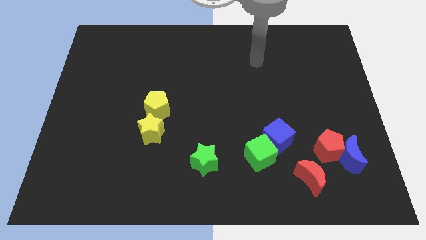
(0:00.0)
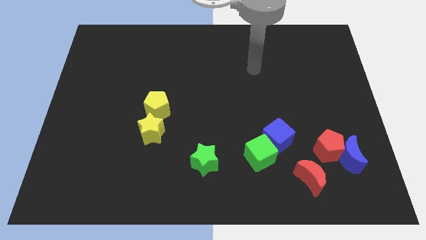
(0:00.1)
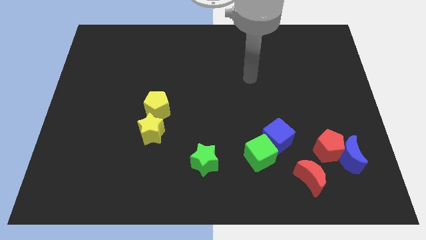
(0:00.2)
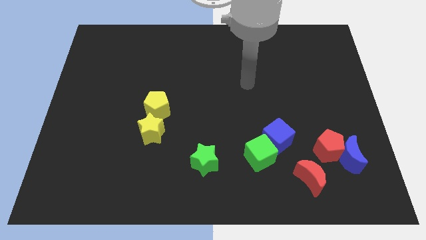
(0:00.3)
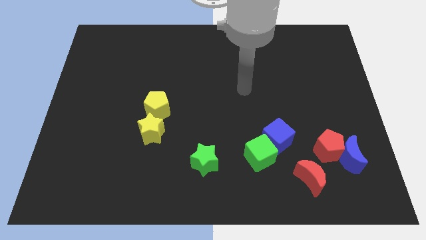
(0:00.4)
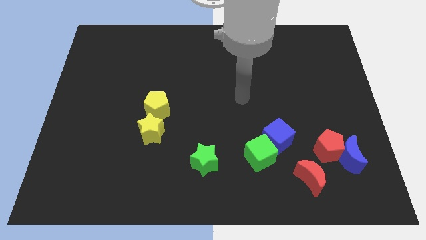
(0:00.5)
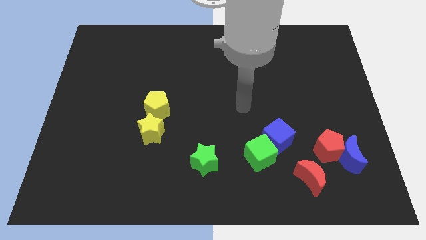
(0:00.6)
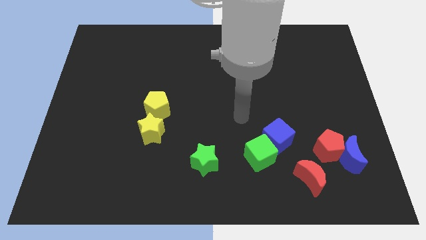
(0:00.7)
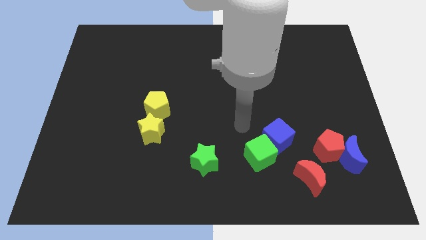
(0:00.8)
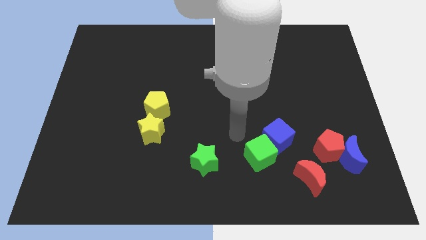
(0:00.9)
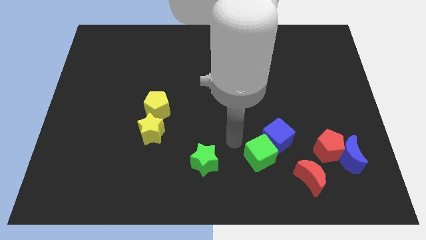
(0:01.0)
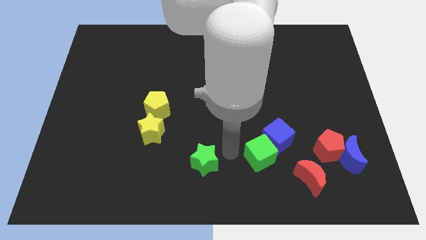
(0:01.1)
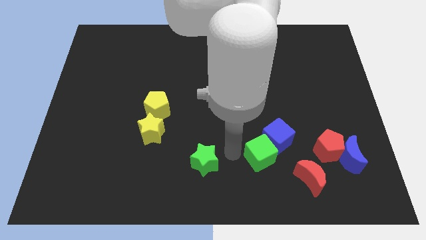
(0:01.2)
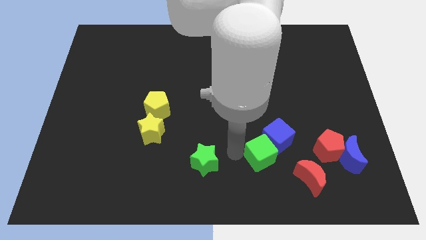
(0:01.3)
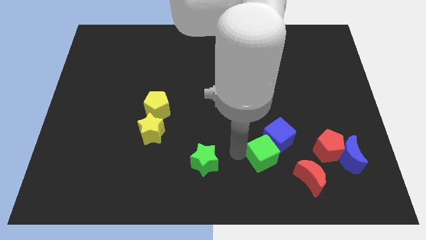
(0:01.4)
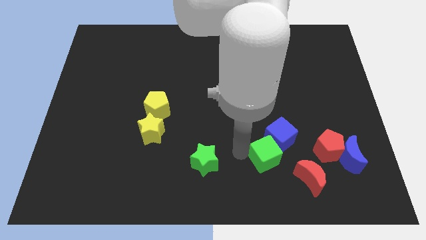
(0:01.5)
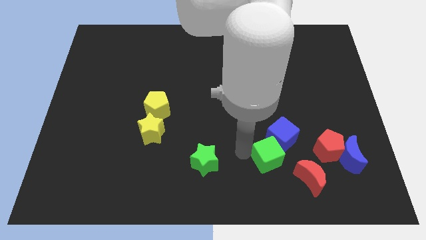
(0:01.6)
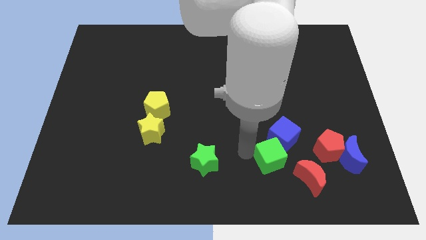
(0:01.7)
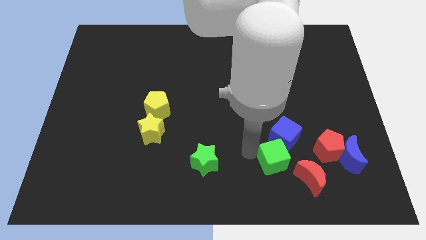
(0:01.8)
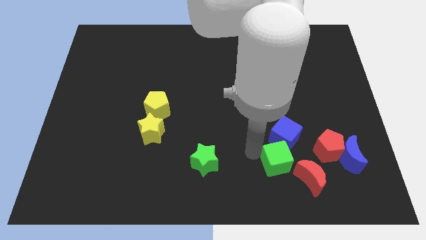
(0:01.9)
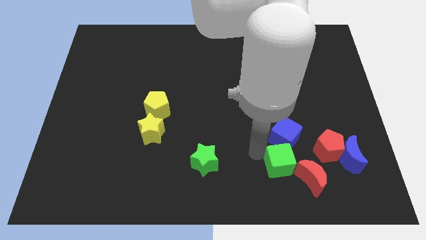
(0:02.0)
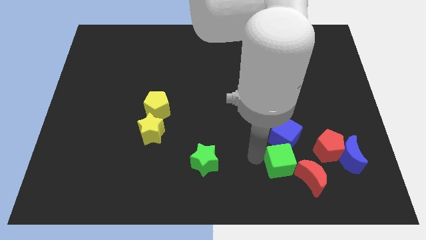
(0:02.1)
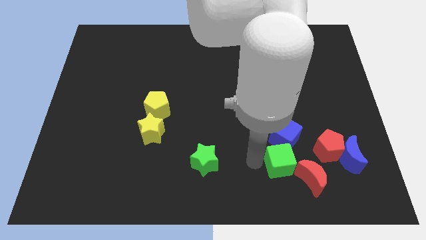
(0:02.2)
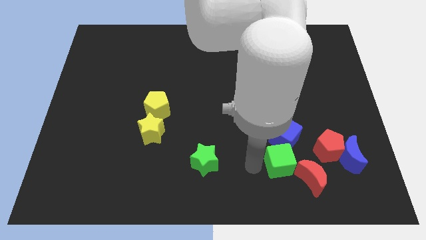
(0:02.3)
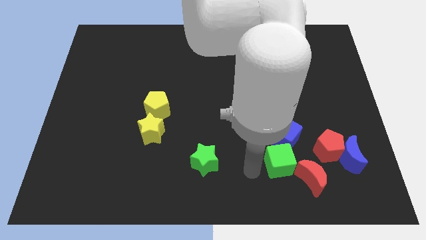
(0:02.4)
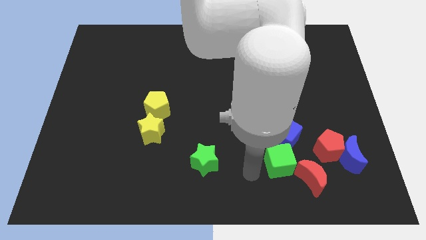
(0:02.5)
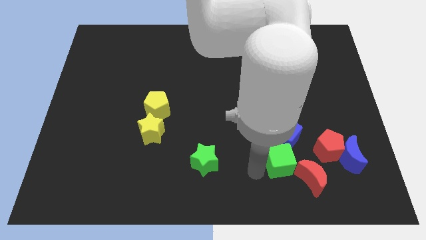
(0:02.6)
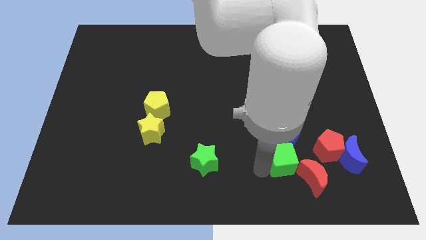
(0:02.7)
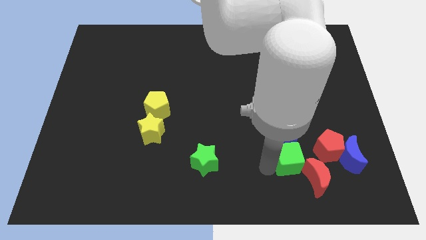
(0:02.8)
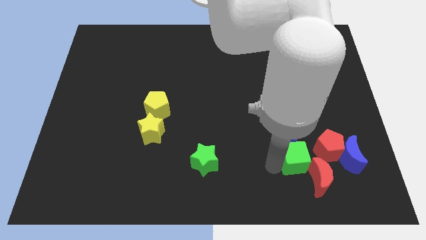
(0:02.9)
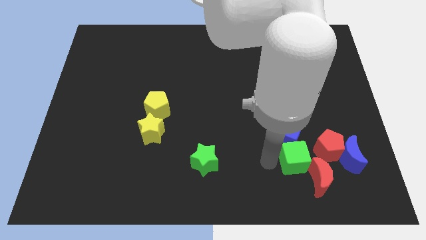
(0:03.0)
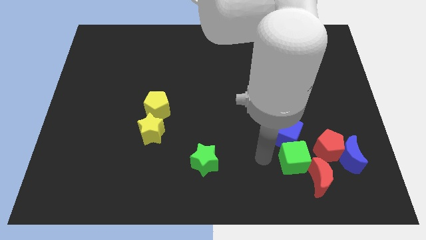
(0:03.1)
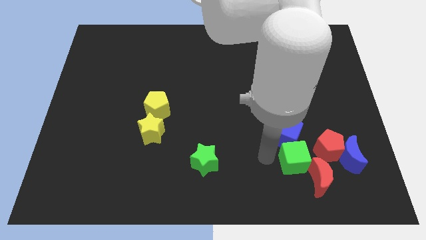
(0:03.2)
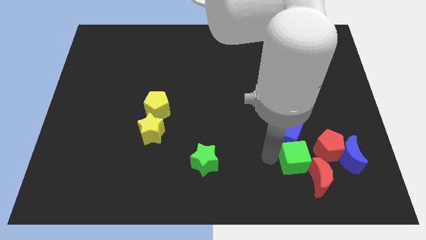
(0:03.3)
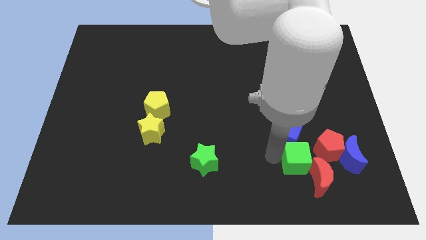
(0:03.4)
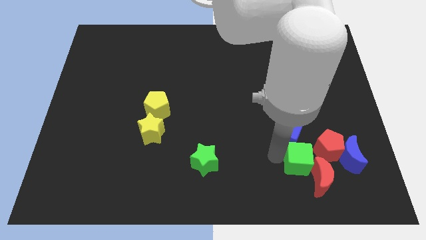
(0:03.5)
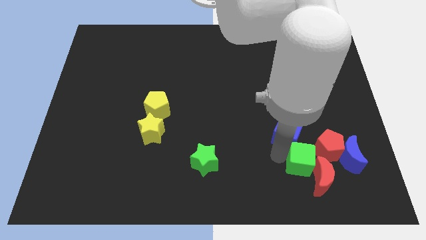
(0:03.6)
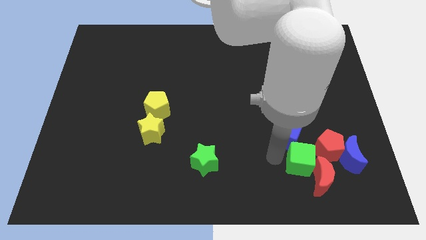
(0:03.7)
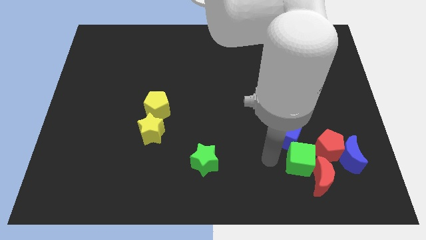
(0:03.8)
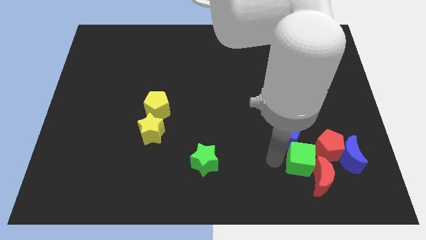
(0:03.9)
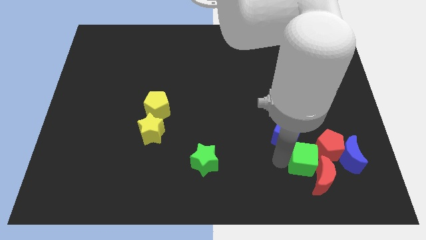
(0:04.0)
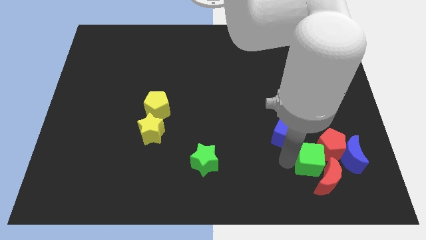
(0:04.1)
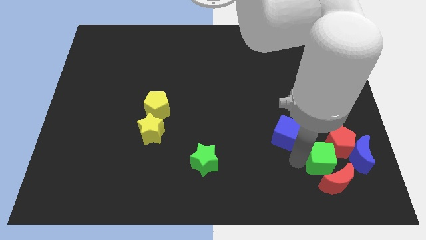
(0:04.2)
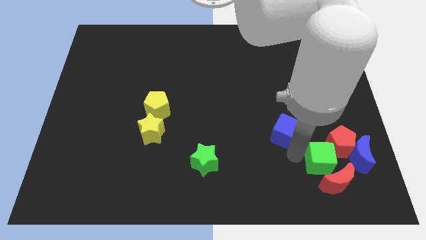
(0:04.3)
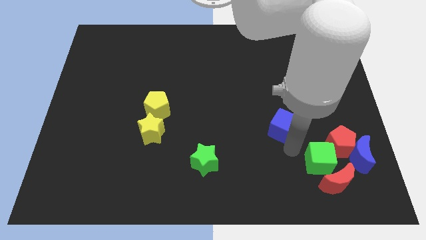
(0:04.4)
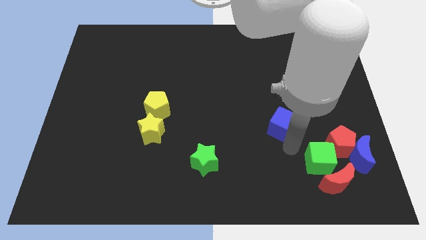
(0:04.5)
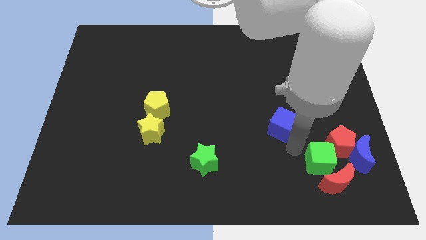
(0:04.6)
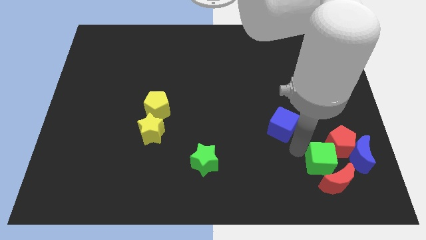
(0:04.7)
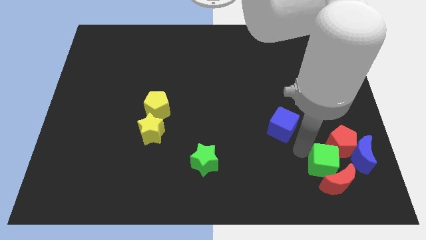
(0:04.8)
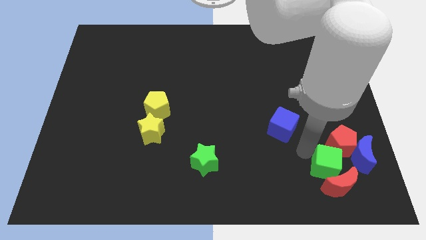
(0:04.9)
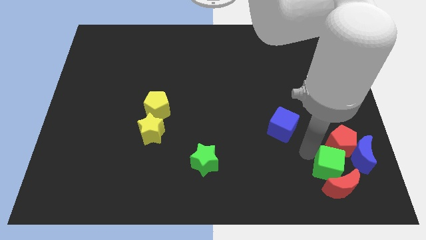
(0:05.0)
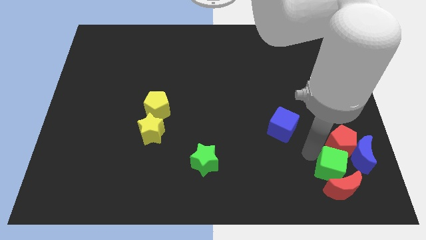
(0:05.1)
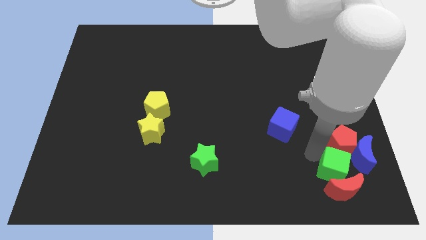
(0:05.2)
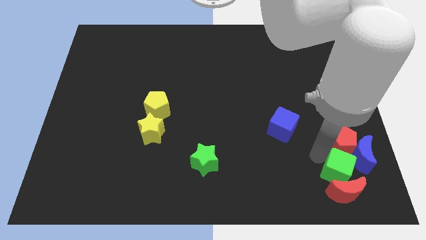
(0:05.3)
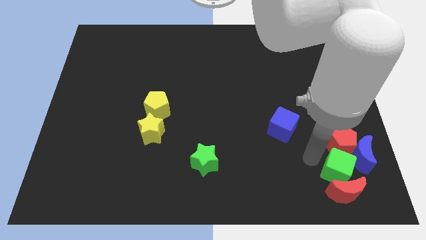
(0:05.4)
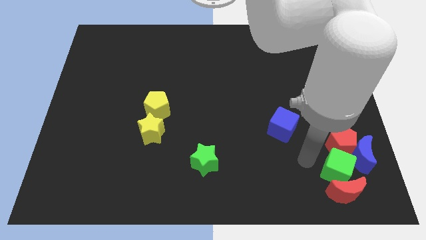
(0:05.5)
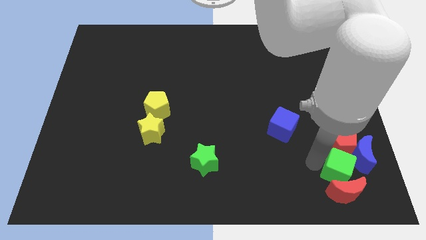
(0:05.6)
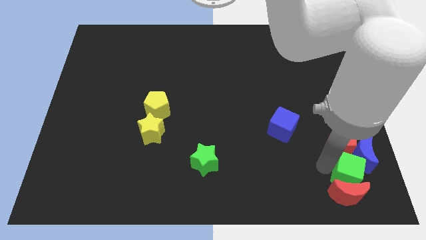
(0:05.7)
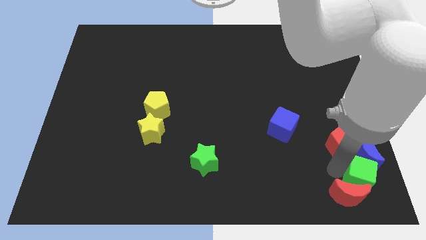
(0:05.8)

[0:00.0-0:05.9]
put the green cube to the bottom right of the board

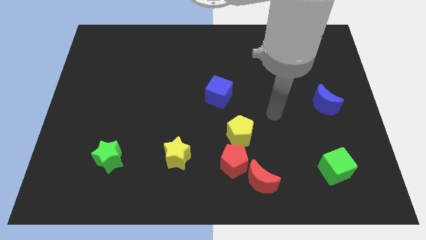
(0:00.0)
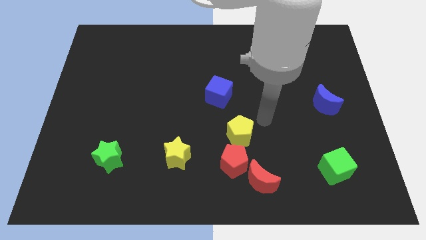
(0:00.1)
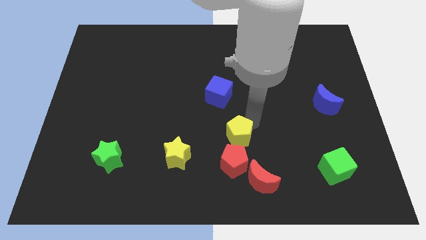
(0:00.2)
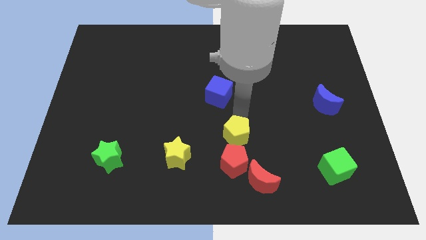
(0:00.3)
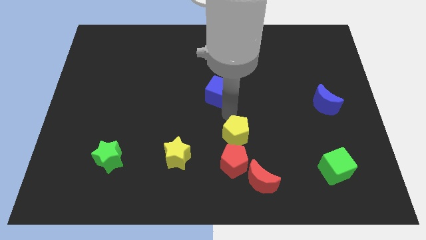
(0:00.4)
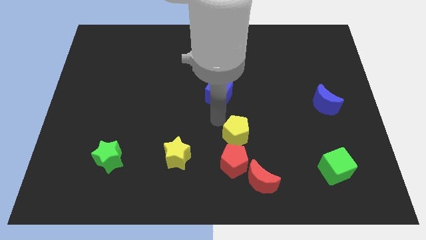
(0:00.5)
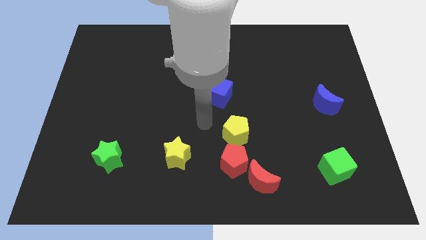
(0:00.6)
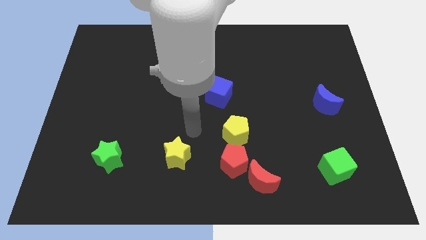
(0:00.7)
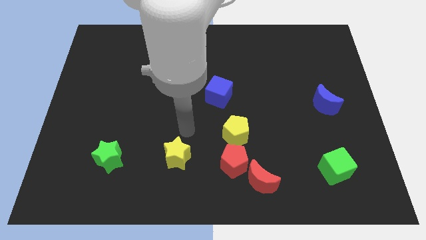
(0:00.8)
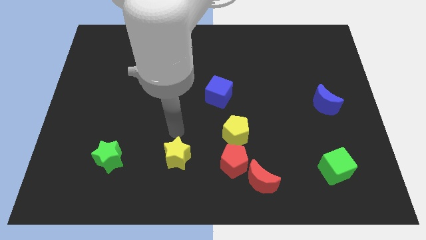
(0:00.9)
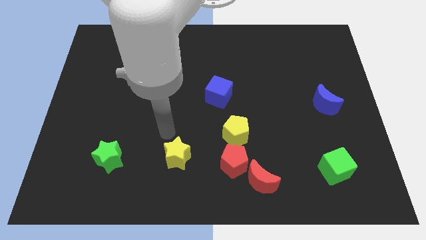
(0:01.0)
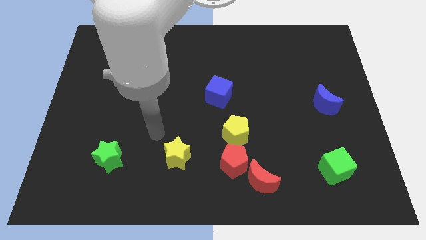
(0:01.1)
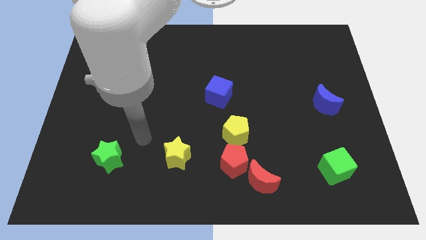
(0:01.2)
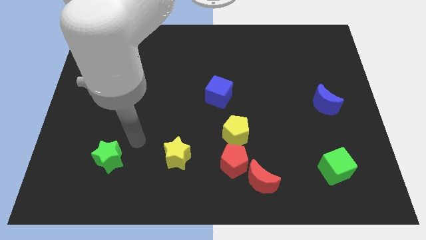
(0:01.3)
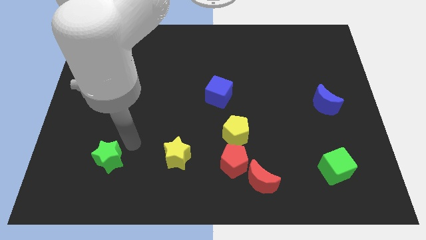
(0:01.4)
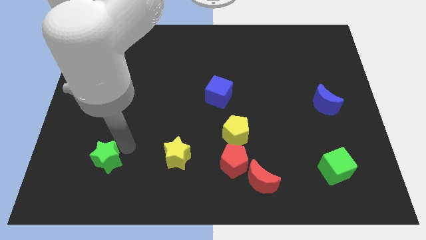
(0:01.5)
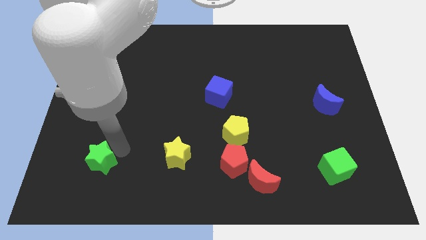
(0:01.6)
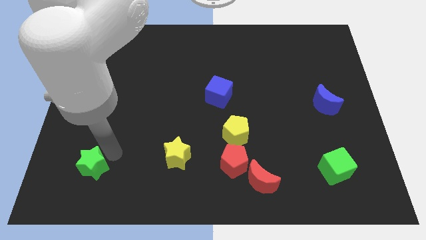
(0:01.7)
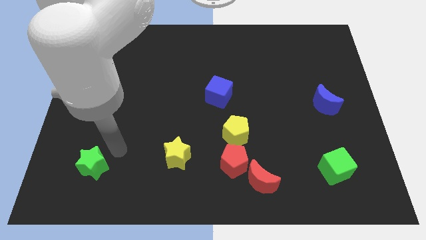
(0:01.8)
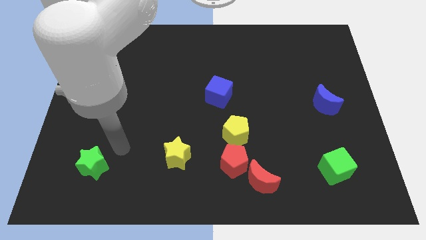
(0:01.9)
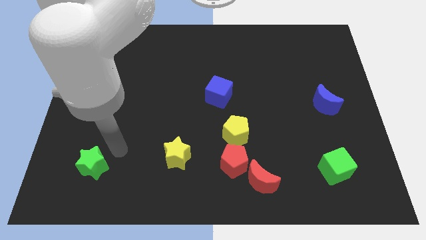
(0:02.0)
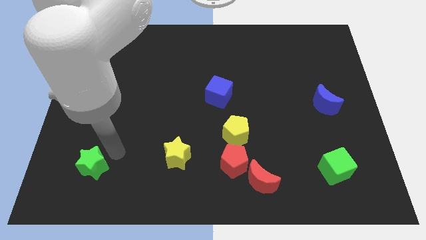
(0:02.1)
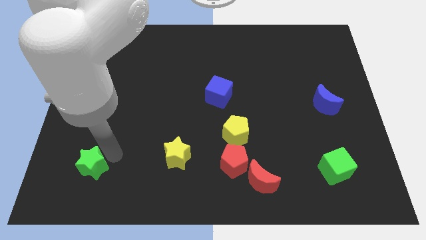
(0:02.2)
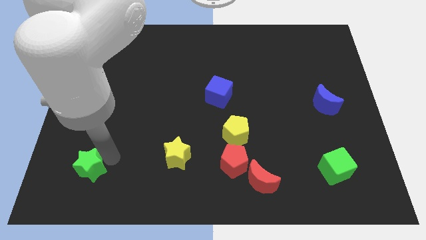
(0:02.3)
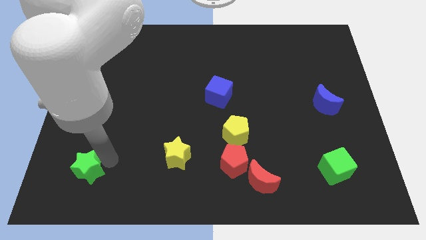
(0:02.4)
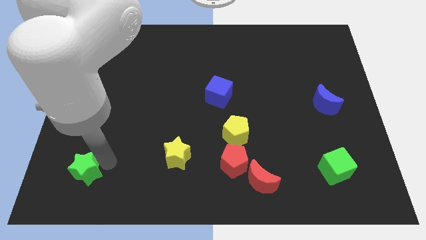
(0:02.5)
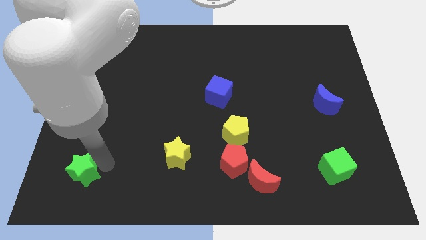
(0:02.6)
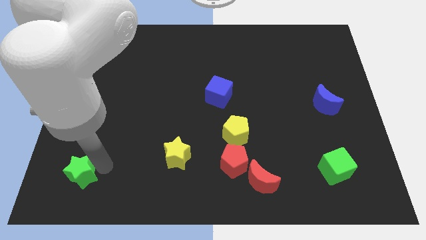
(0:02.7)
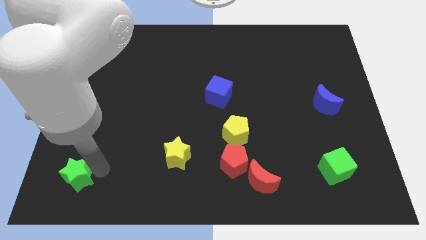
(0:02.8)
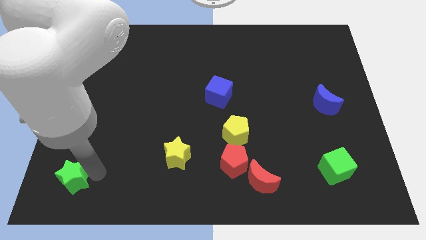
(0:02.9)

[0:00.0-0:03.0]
move the green star to the bottom left corner
